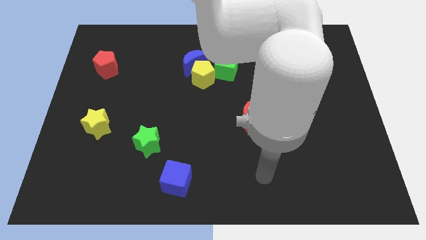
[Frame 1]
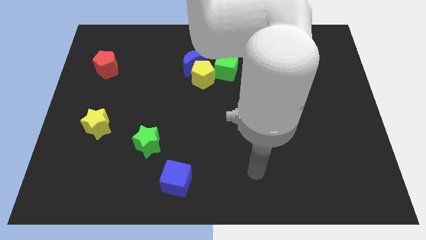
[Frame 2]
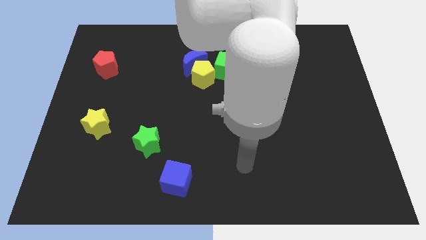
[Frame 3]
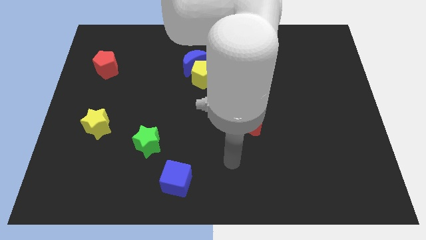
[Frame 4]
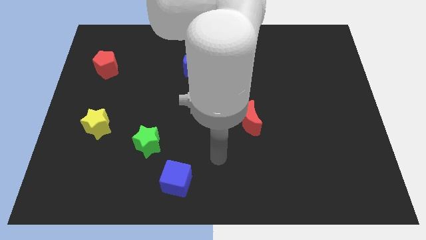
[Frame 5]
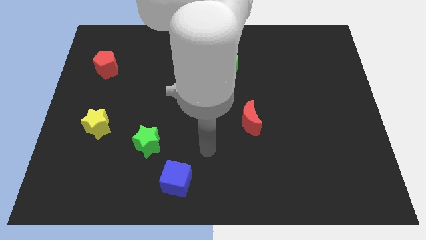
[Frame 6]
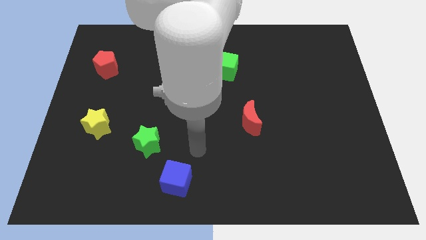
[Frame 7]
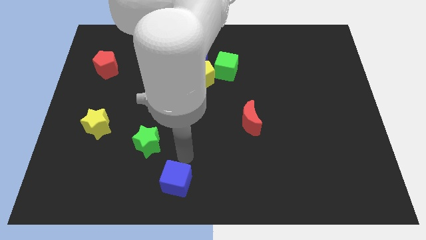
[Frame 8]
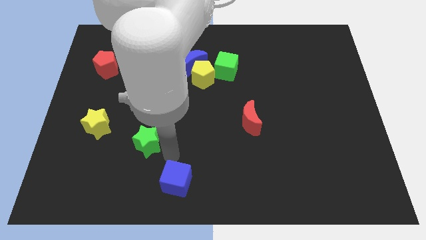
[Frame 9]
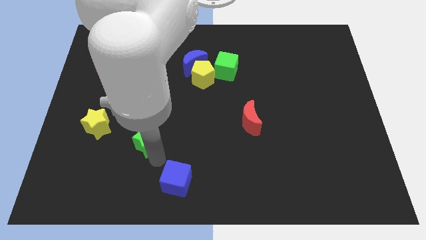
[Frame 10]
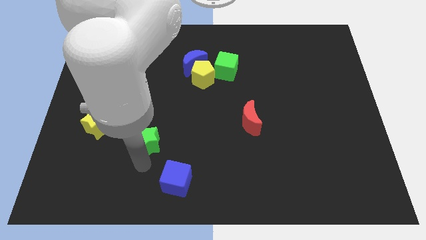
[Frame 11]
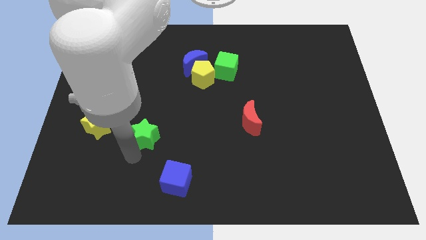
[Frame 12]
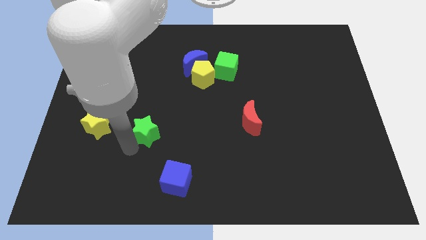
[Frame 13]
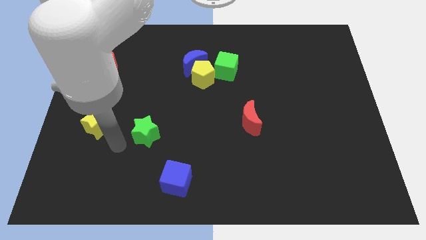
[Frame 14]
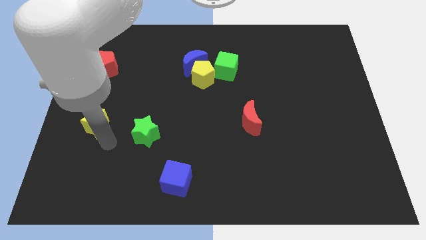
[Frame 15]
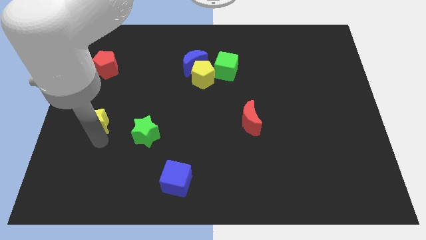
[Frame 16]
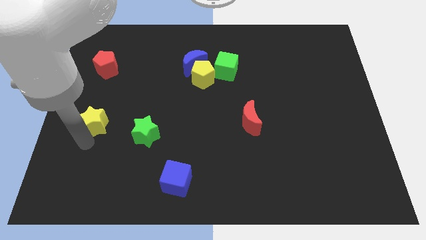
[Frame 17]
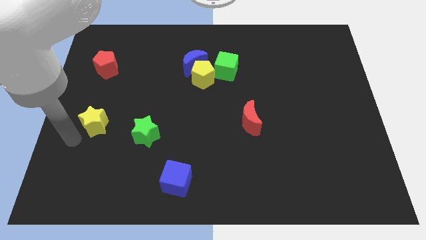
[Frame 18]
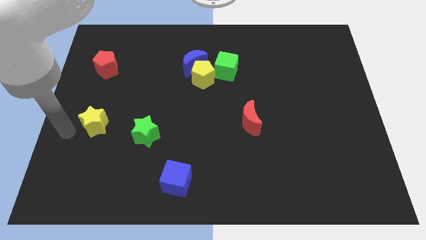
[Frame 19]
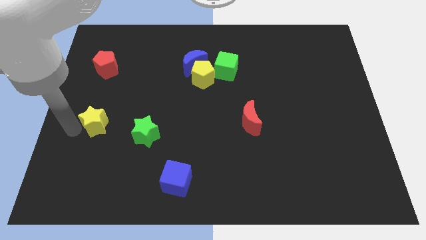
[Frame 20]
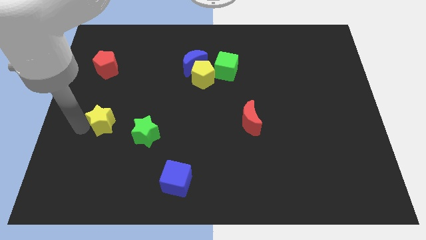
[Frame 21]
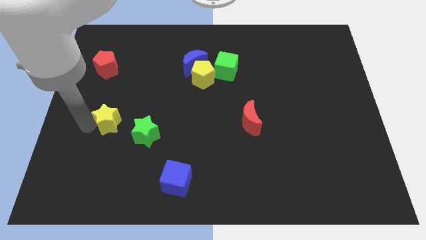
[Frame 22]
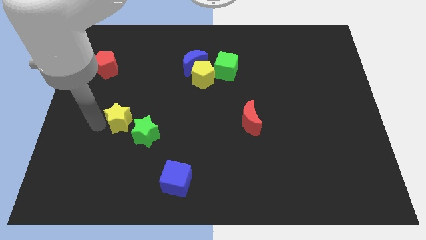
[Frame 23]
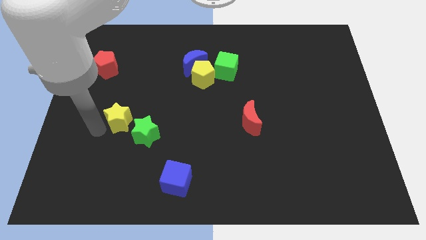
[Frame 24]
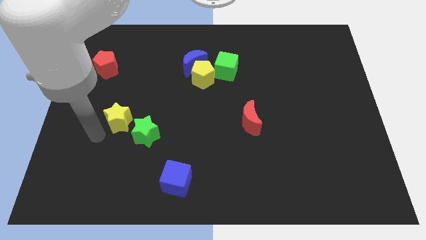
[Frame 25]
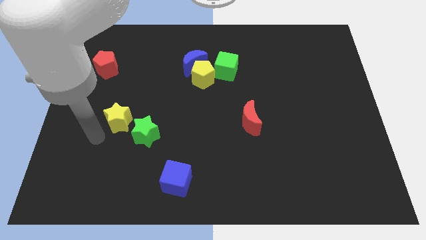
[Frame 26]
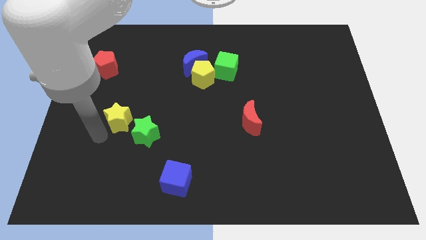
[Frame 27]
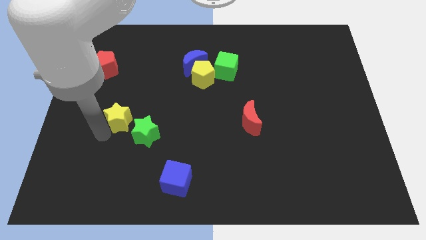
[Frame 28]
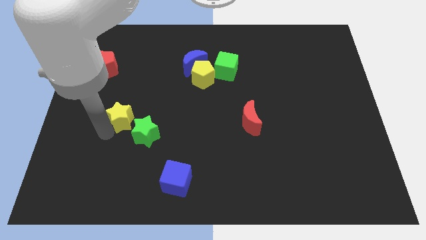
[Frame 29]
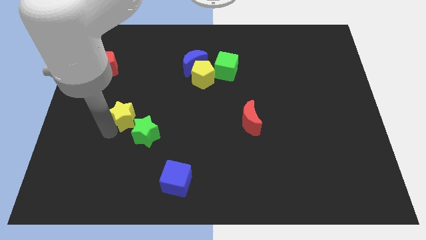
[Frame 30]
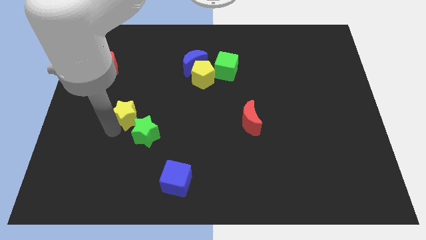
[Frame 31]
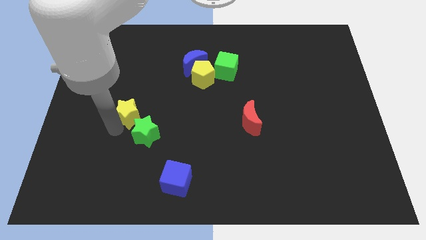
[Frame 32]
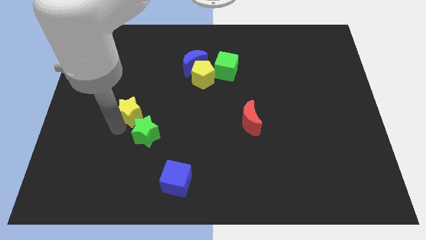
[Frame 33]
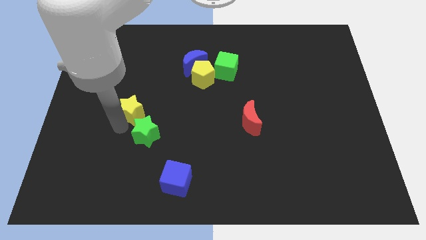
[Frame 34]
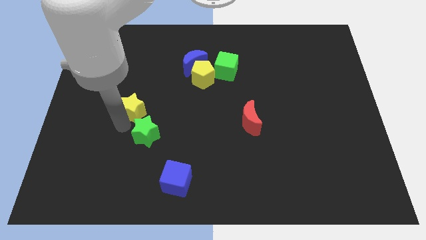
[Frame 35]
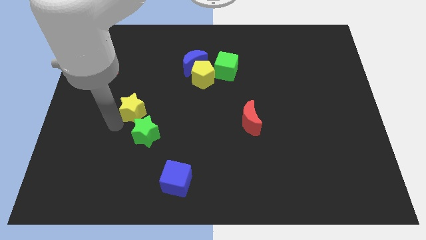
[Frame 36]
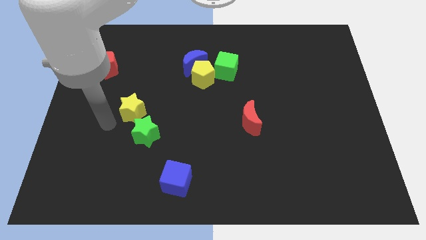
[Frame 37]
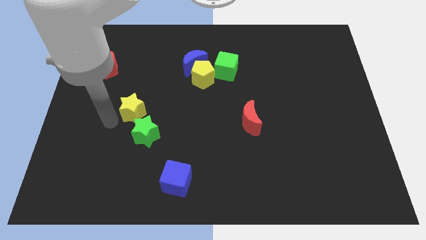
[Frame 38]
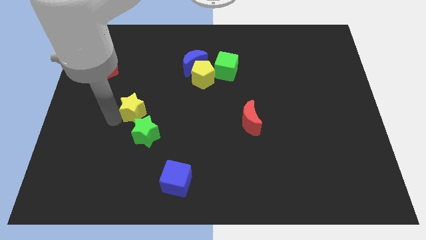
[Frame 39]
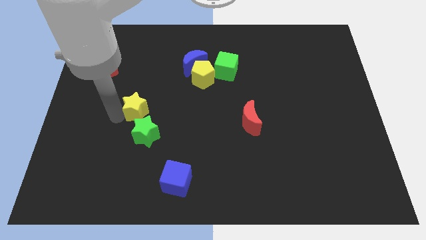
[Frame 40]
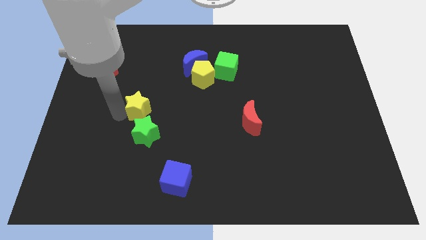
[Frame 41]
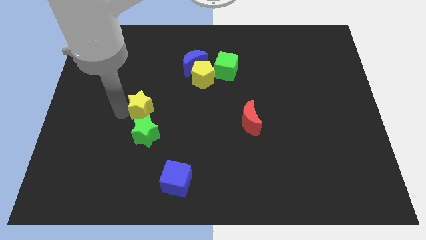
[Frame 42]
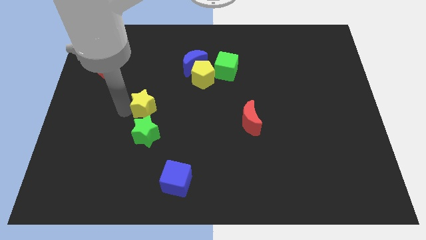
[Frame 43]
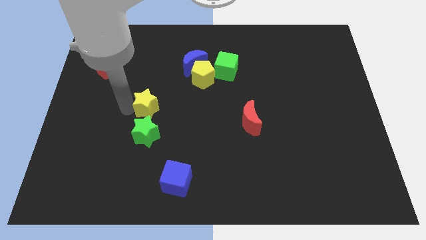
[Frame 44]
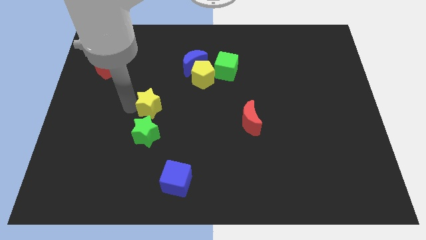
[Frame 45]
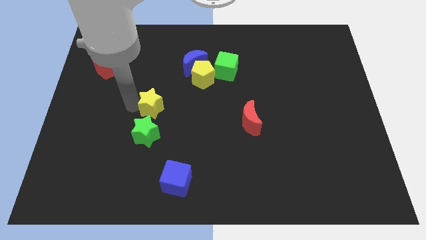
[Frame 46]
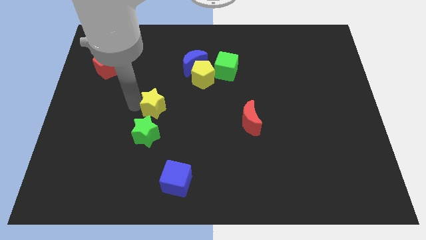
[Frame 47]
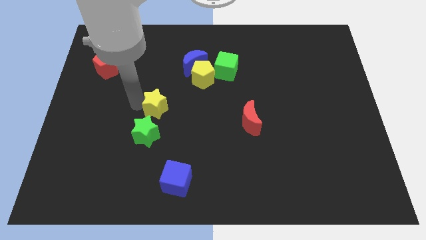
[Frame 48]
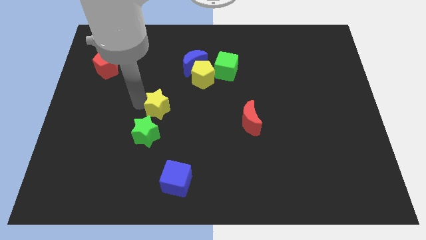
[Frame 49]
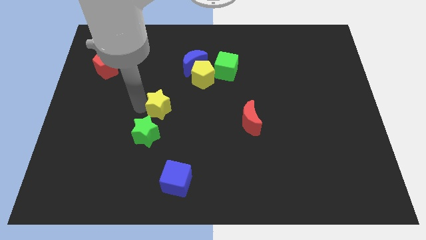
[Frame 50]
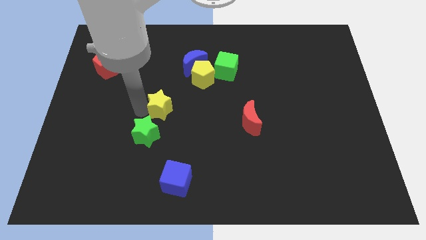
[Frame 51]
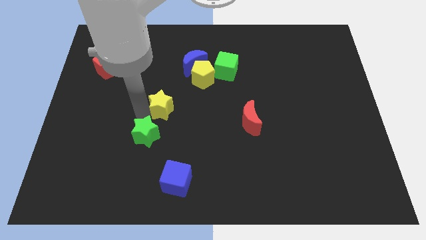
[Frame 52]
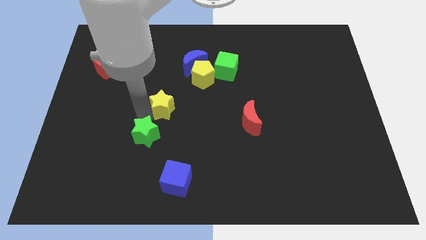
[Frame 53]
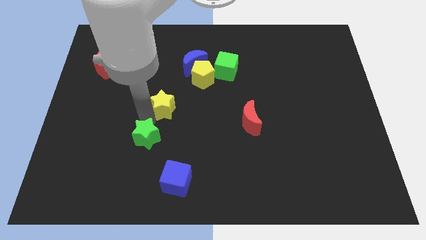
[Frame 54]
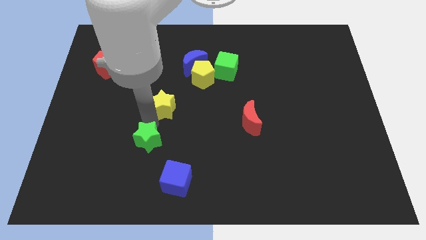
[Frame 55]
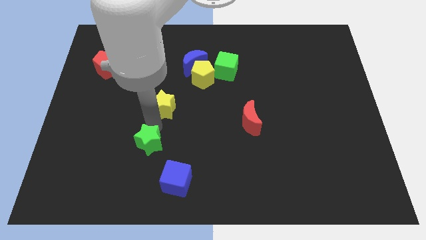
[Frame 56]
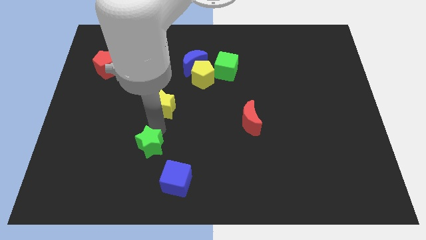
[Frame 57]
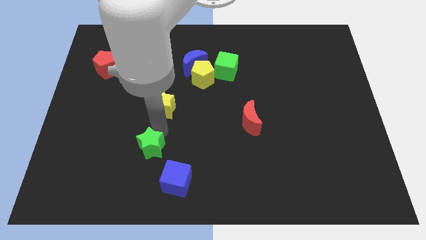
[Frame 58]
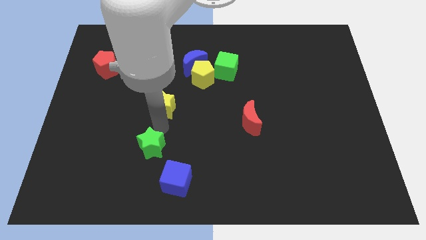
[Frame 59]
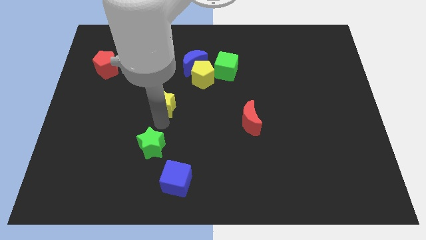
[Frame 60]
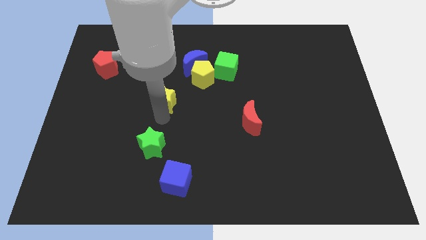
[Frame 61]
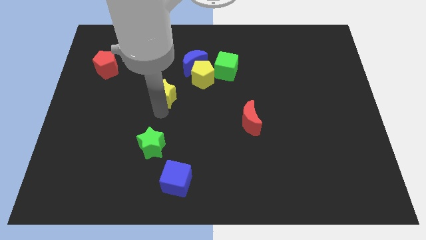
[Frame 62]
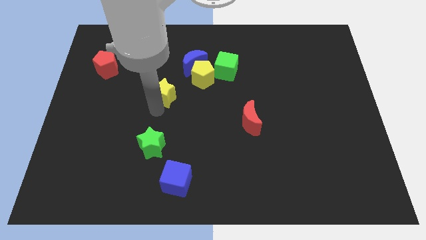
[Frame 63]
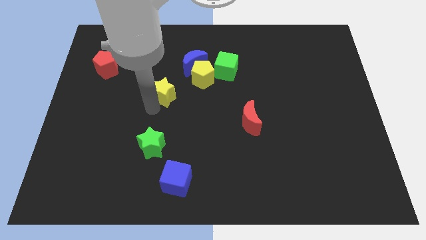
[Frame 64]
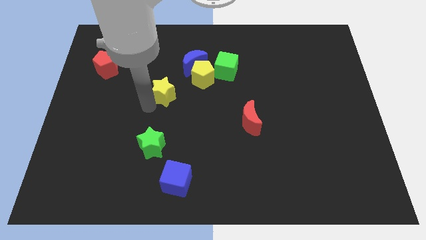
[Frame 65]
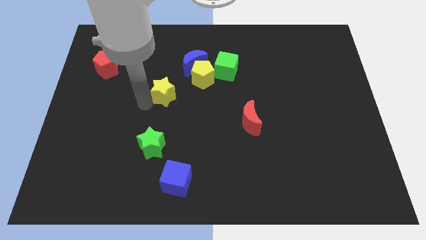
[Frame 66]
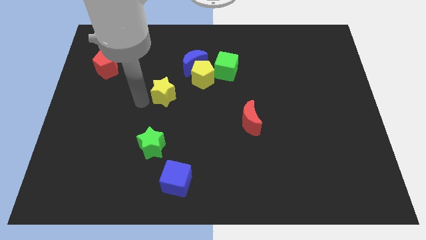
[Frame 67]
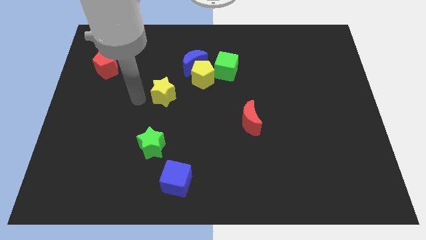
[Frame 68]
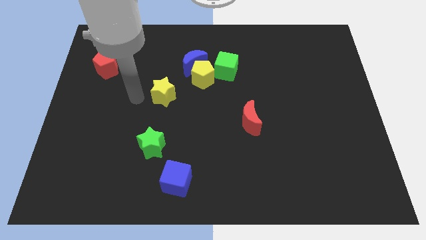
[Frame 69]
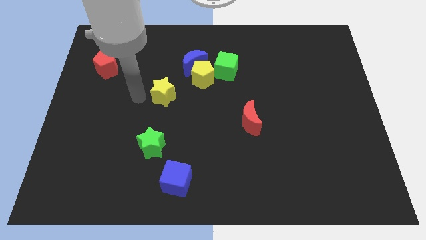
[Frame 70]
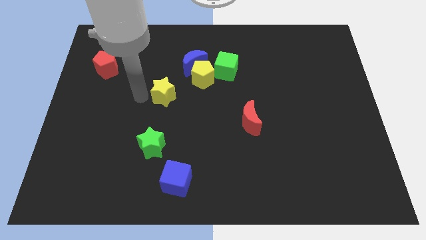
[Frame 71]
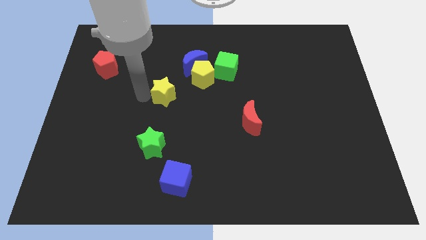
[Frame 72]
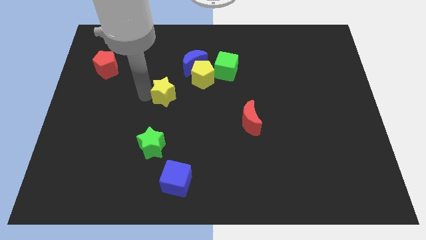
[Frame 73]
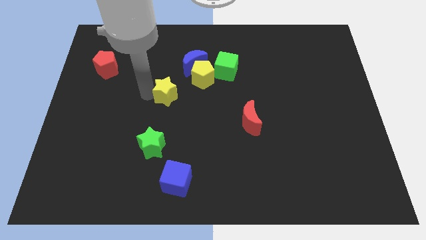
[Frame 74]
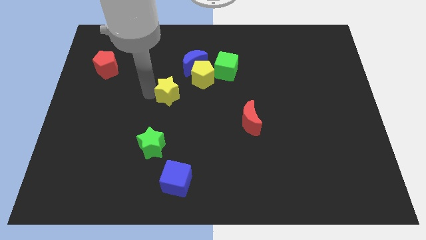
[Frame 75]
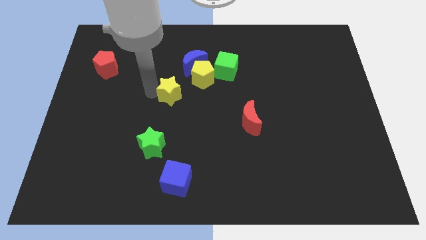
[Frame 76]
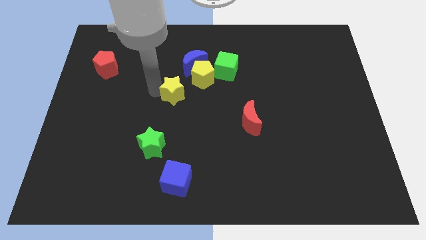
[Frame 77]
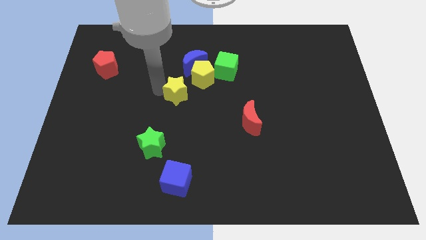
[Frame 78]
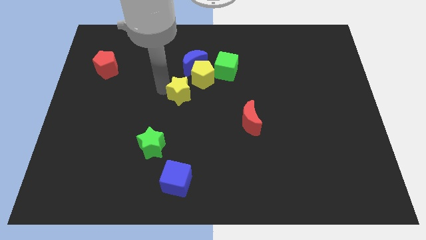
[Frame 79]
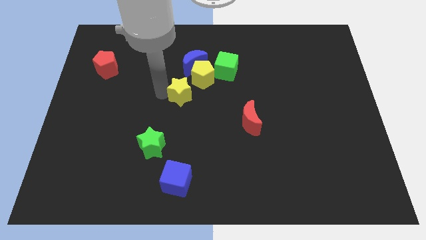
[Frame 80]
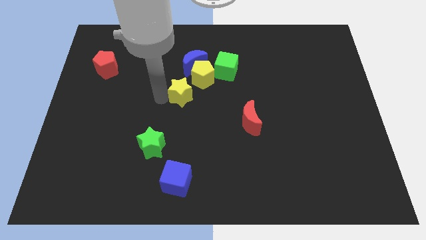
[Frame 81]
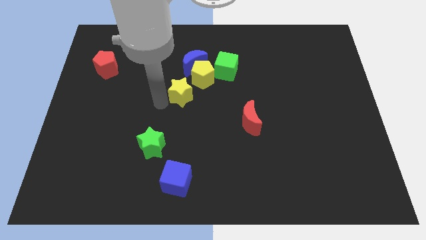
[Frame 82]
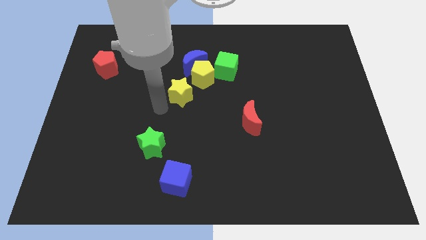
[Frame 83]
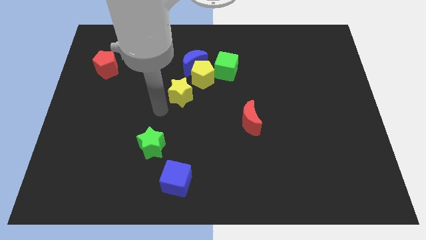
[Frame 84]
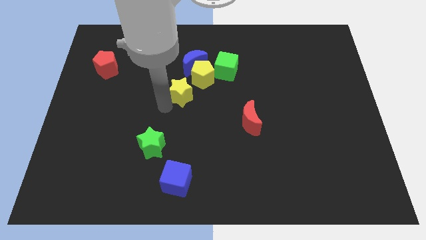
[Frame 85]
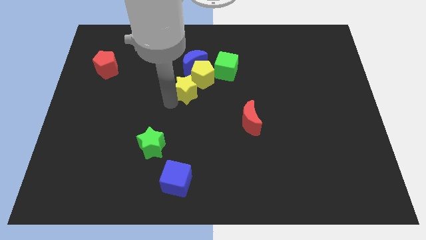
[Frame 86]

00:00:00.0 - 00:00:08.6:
push the yellow star close to the yellow pentagon
